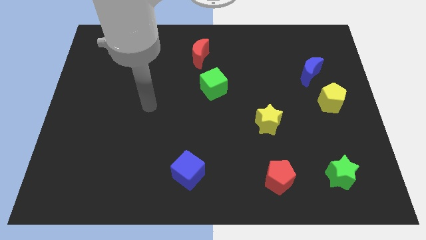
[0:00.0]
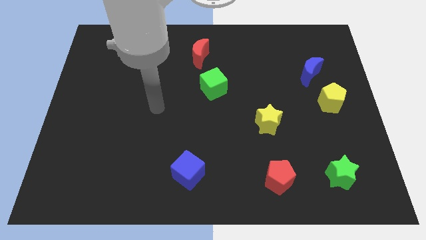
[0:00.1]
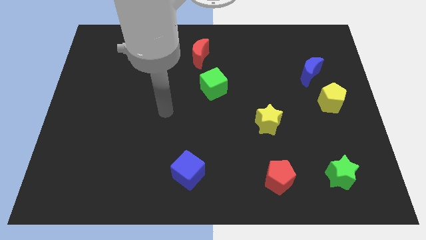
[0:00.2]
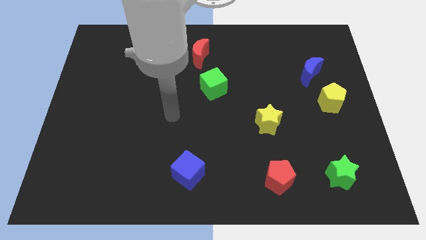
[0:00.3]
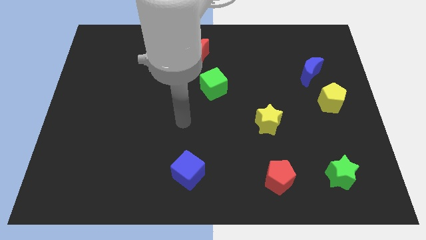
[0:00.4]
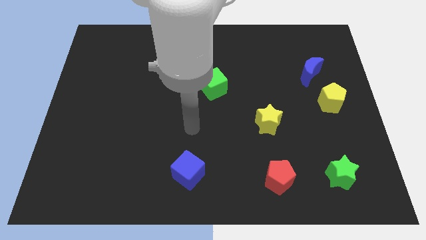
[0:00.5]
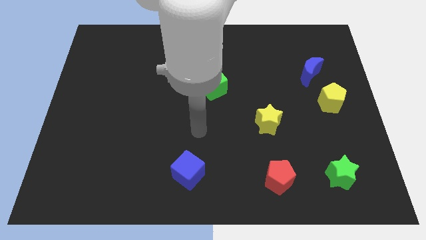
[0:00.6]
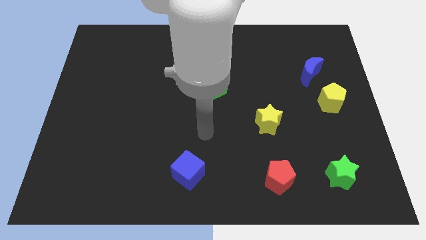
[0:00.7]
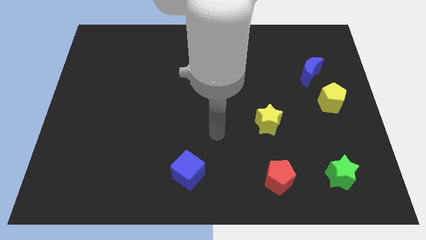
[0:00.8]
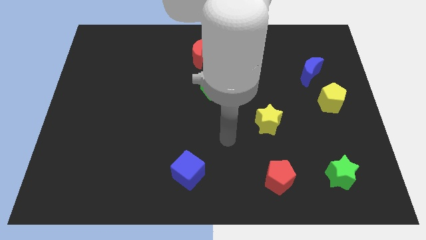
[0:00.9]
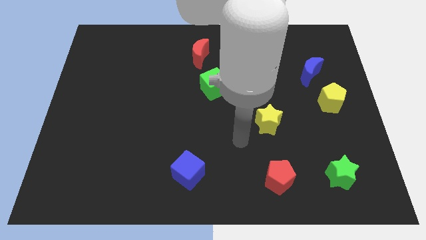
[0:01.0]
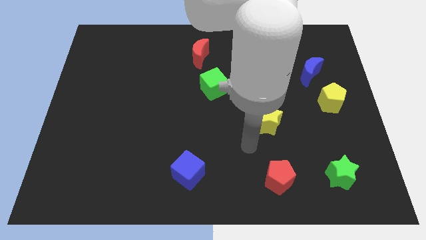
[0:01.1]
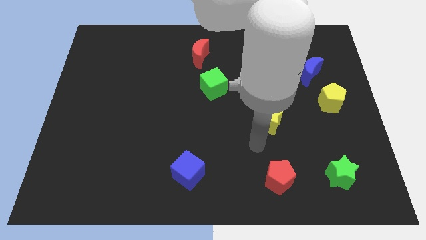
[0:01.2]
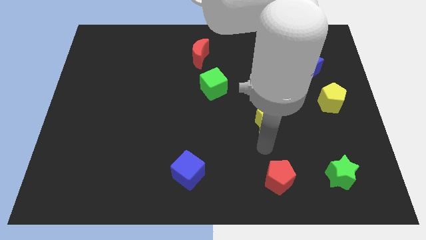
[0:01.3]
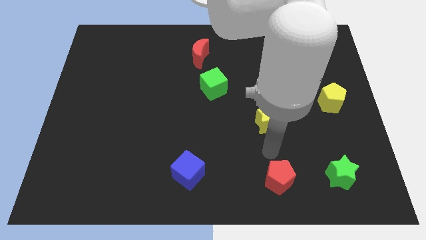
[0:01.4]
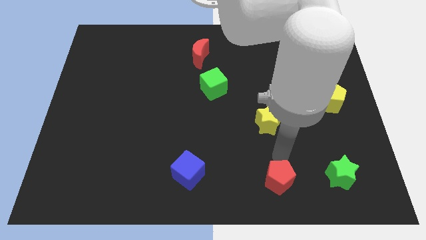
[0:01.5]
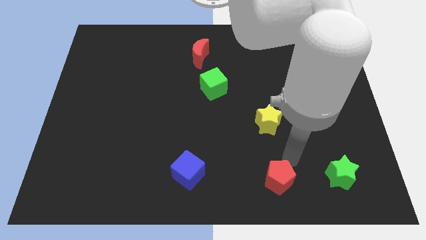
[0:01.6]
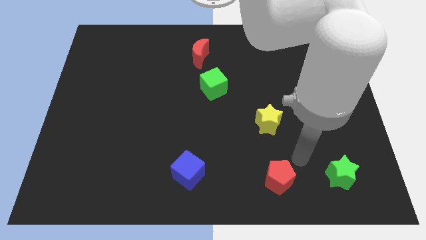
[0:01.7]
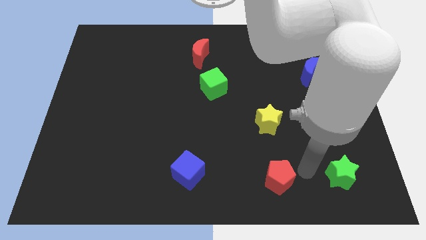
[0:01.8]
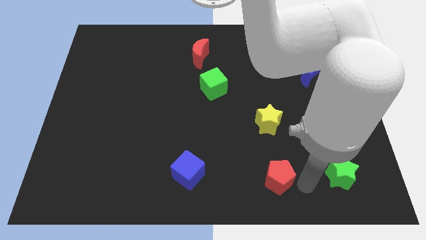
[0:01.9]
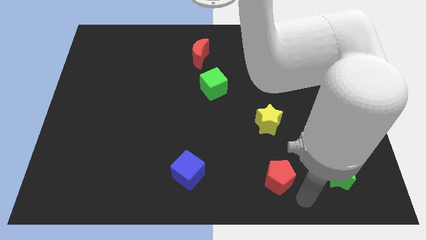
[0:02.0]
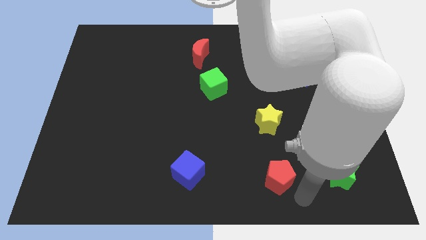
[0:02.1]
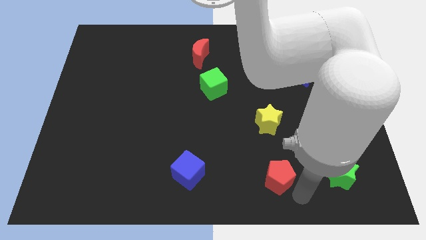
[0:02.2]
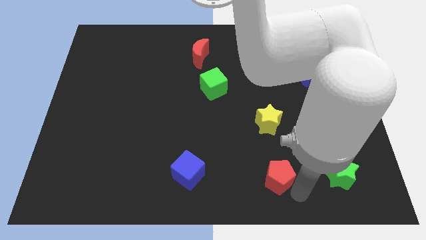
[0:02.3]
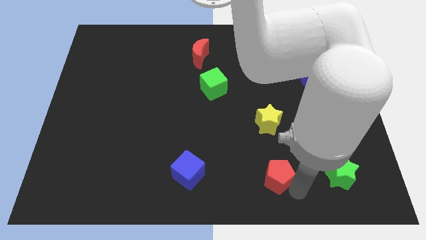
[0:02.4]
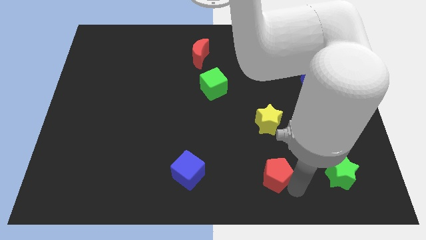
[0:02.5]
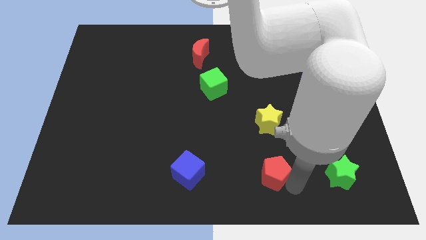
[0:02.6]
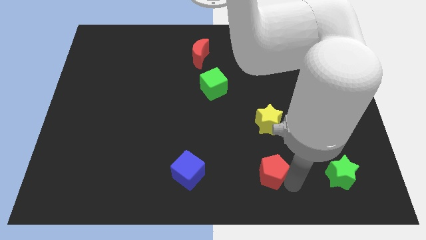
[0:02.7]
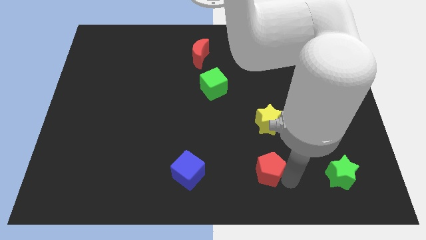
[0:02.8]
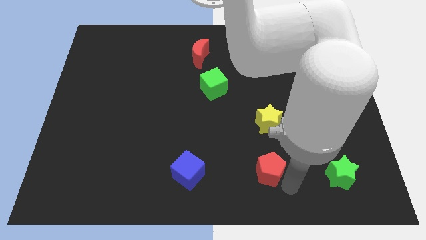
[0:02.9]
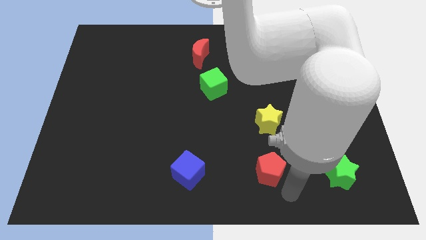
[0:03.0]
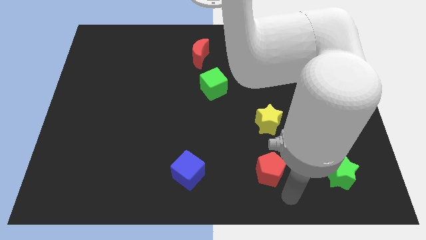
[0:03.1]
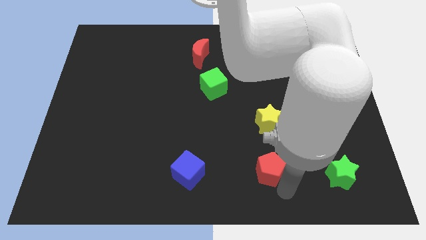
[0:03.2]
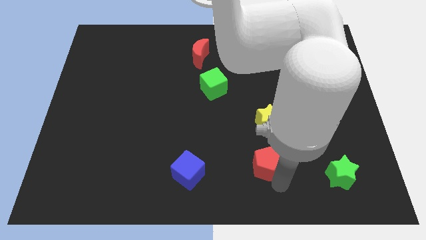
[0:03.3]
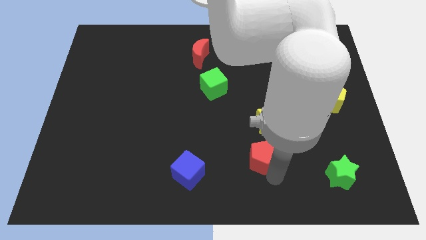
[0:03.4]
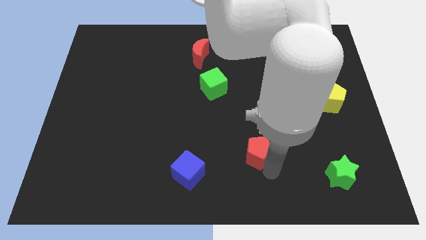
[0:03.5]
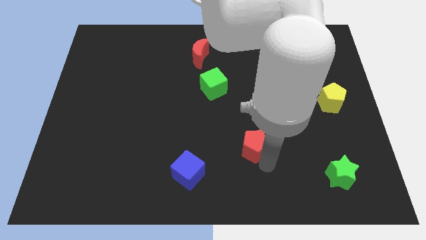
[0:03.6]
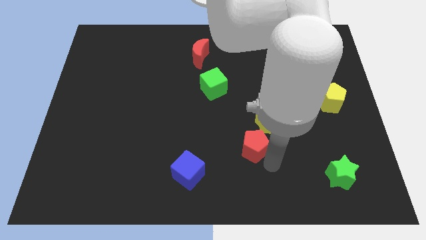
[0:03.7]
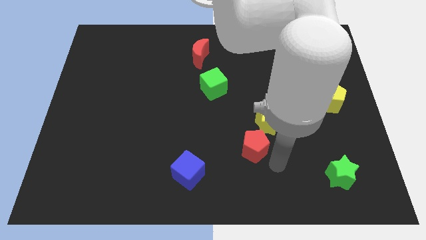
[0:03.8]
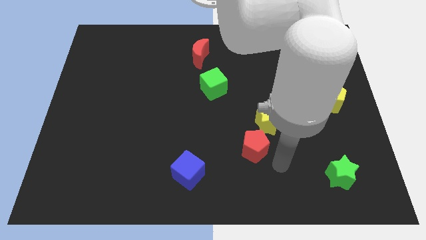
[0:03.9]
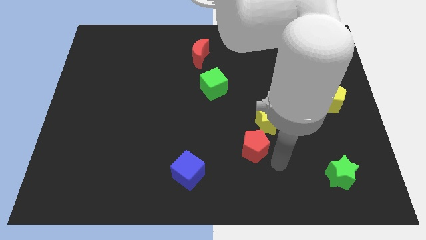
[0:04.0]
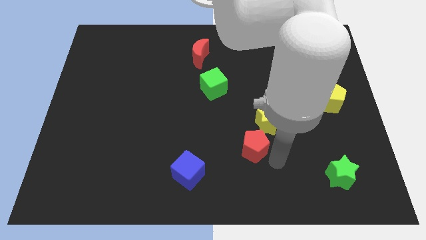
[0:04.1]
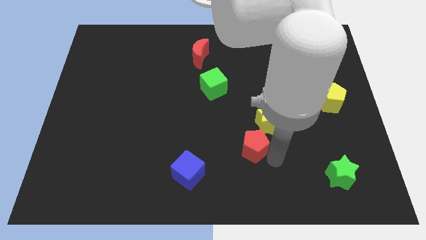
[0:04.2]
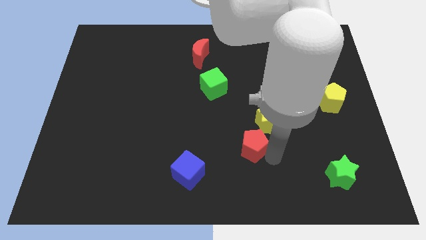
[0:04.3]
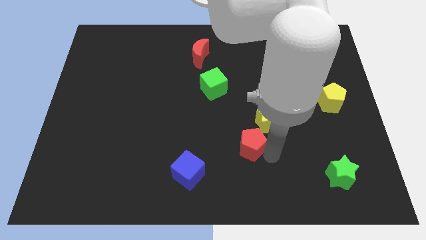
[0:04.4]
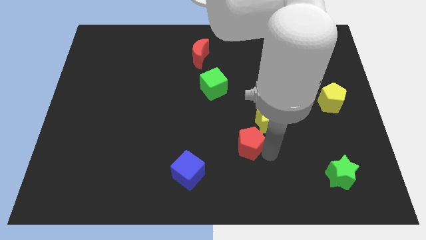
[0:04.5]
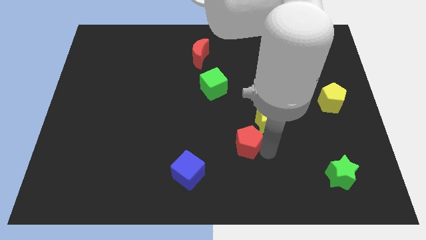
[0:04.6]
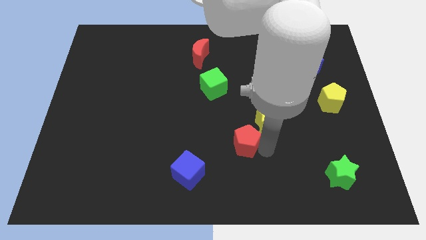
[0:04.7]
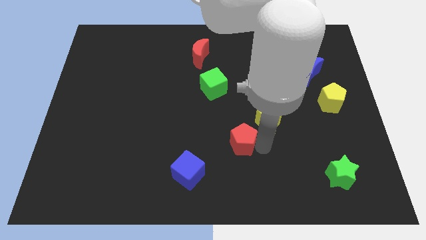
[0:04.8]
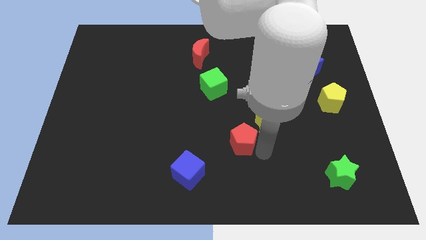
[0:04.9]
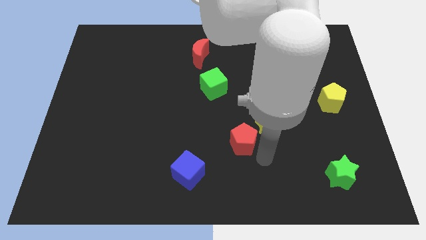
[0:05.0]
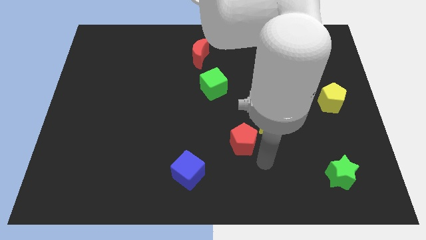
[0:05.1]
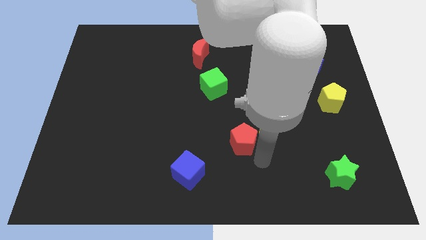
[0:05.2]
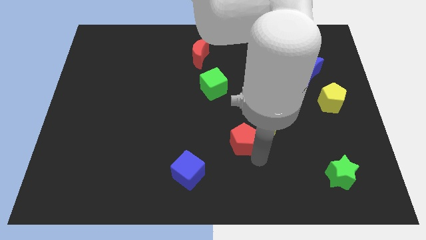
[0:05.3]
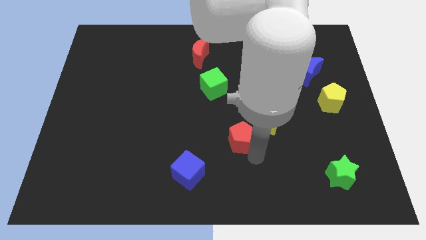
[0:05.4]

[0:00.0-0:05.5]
push the red pentagon to the left side of the yellow star

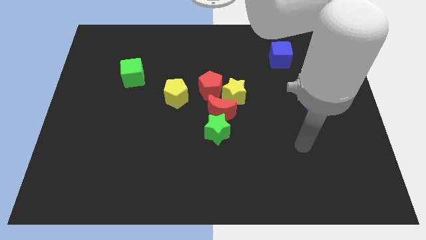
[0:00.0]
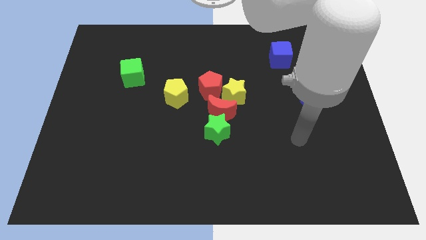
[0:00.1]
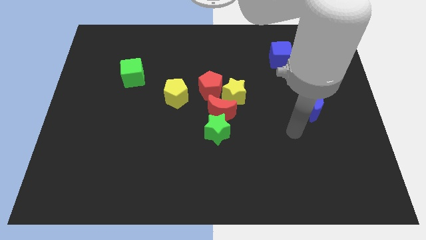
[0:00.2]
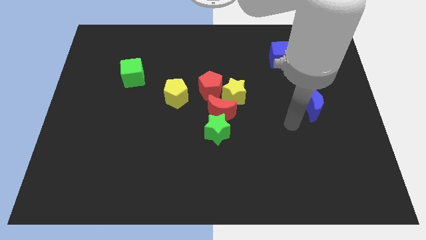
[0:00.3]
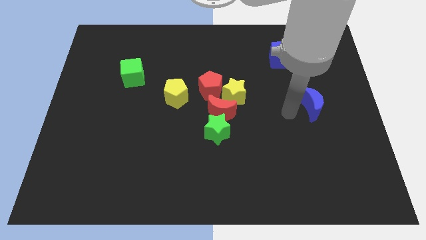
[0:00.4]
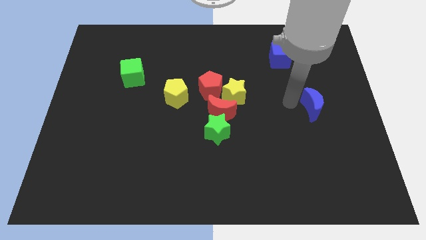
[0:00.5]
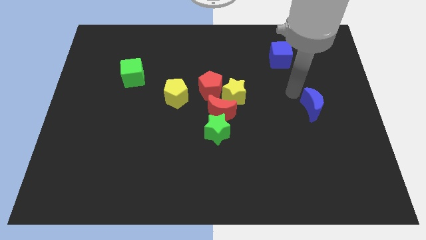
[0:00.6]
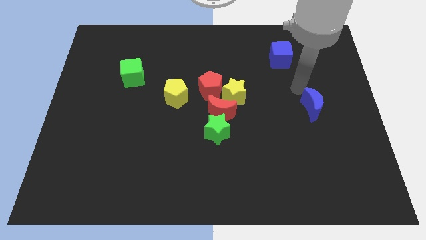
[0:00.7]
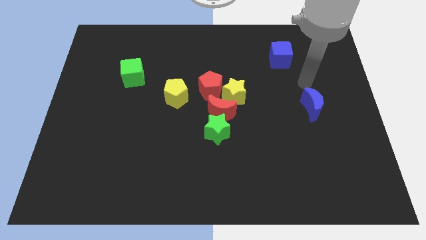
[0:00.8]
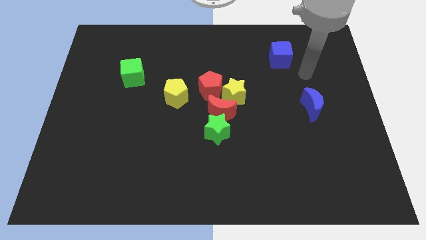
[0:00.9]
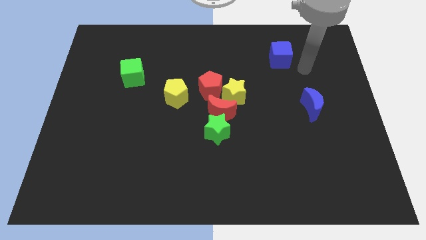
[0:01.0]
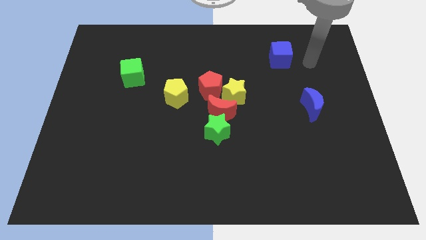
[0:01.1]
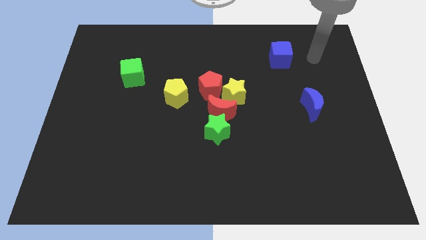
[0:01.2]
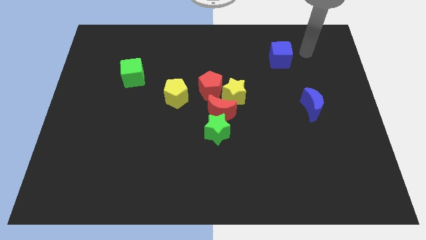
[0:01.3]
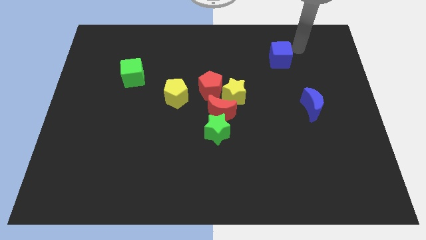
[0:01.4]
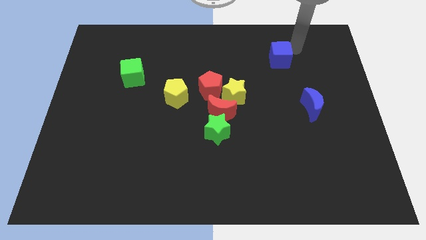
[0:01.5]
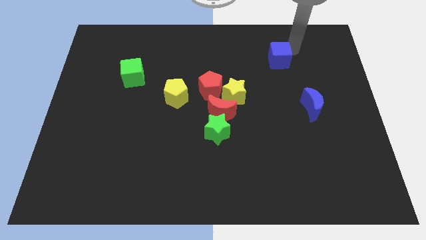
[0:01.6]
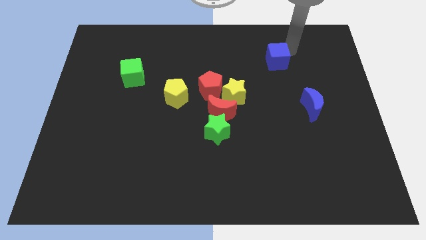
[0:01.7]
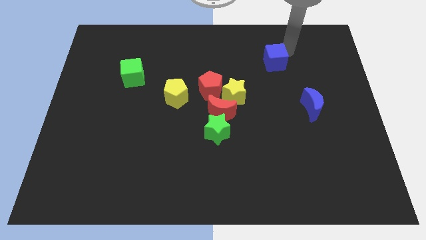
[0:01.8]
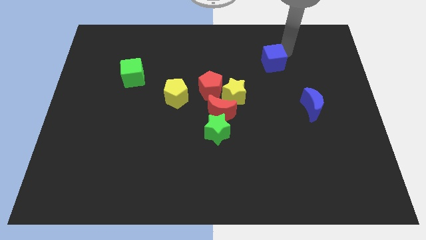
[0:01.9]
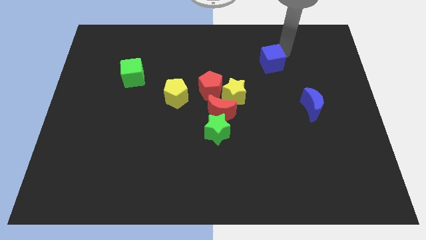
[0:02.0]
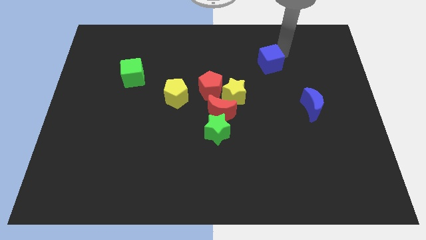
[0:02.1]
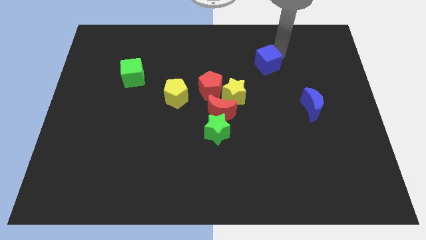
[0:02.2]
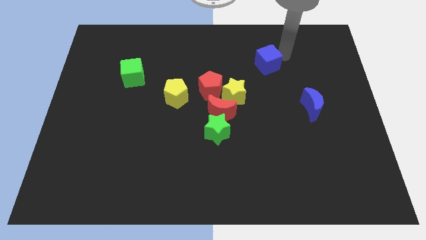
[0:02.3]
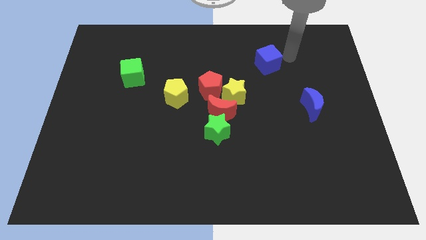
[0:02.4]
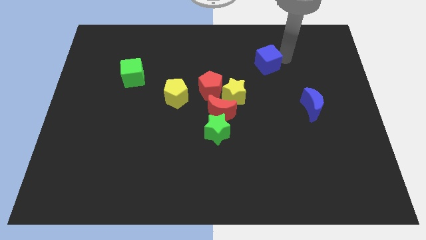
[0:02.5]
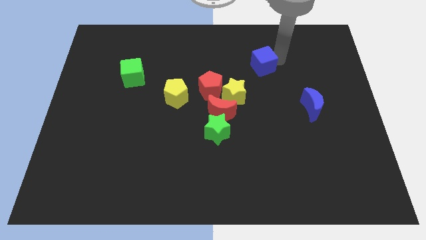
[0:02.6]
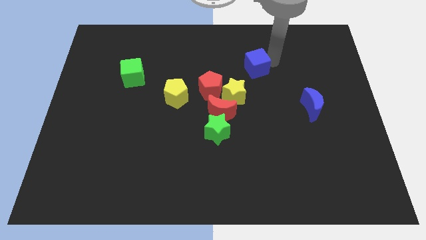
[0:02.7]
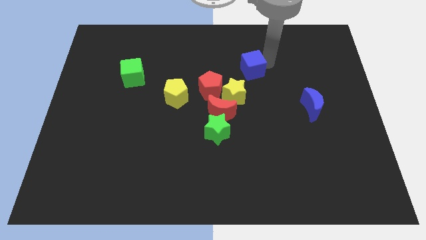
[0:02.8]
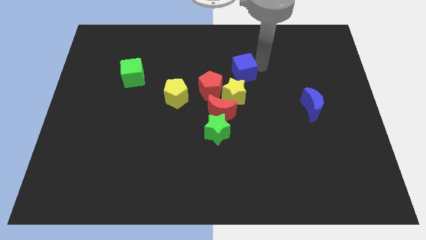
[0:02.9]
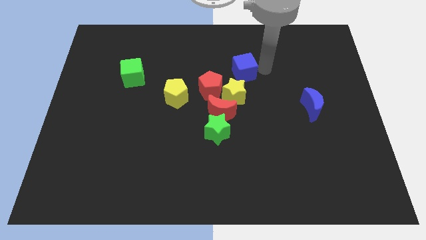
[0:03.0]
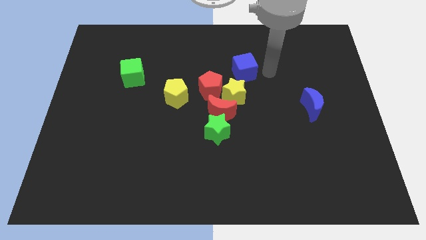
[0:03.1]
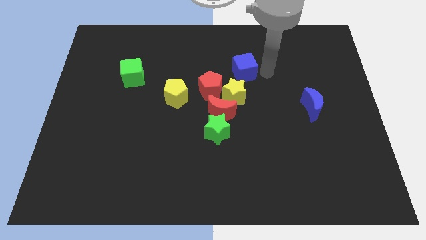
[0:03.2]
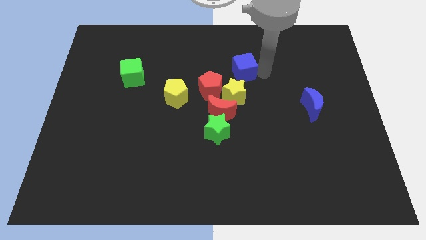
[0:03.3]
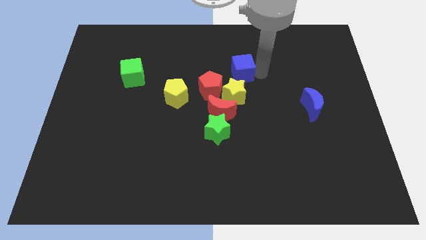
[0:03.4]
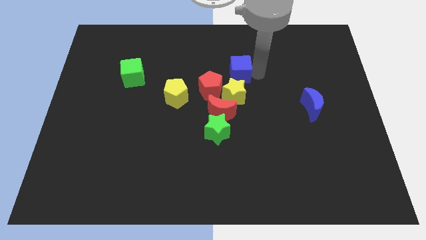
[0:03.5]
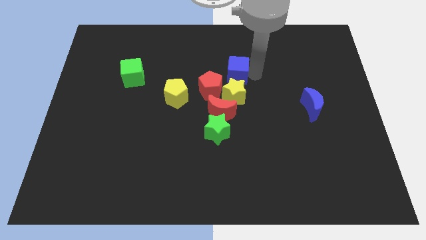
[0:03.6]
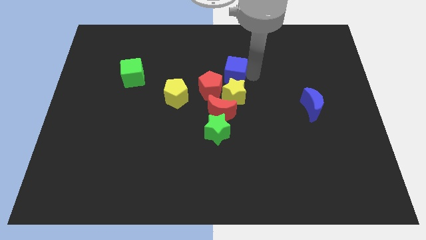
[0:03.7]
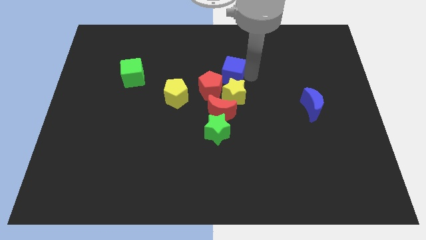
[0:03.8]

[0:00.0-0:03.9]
slide the blue cube diagonally up and to the left of the yellow star
